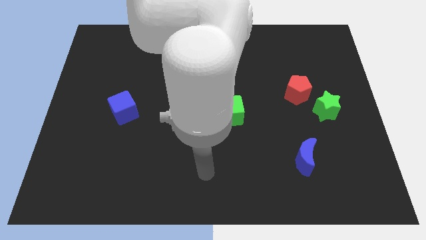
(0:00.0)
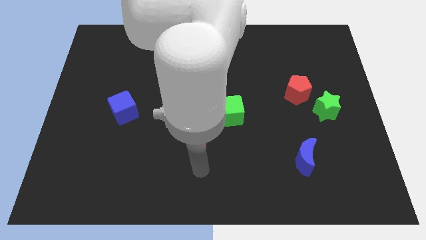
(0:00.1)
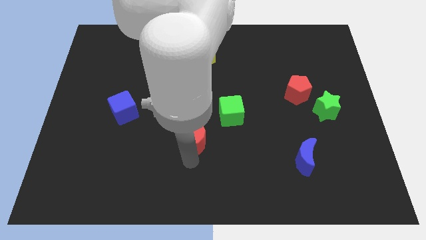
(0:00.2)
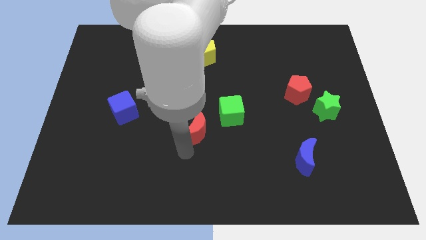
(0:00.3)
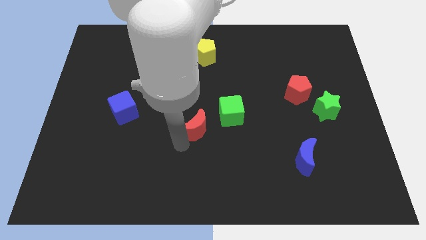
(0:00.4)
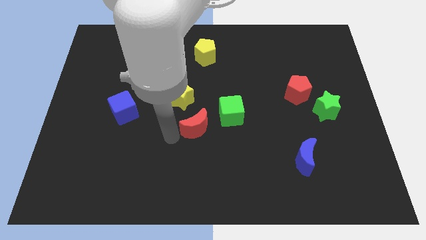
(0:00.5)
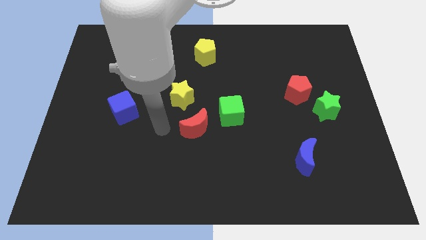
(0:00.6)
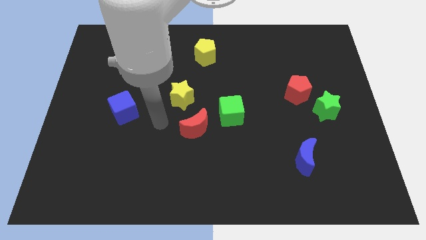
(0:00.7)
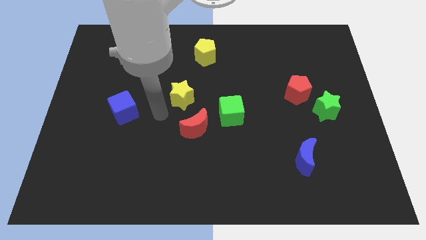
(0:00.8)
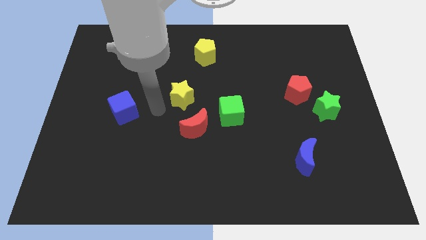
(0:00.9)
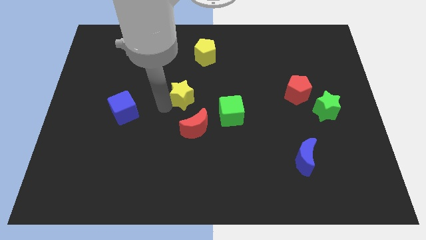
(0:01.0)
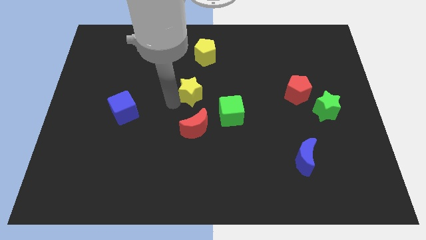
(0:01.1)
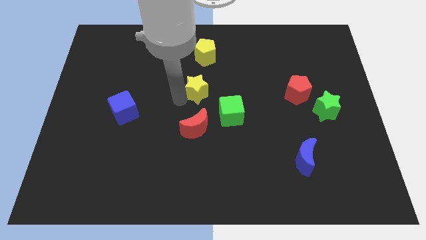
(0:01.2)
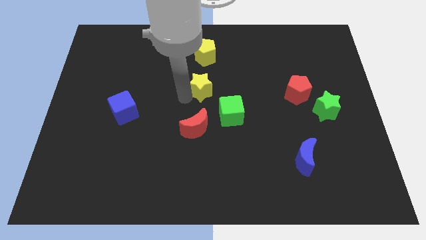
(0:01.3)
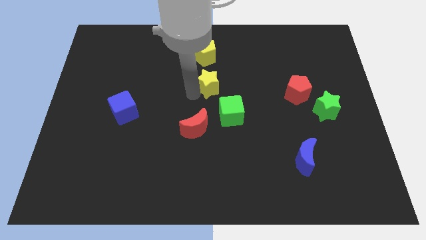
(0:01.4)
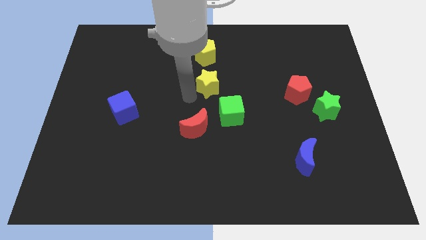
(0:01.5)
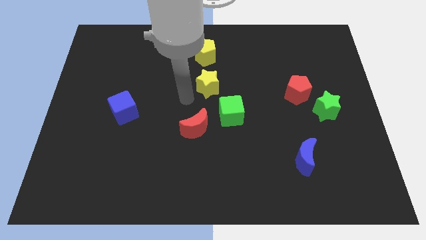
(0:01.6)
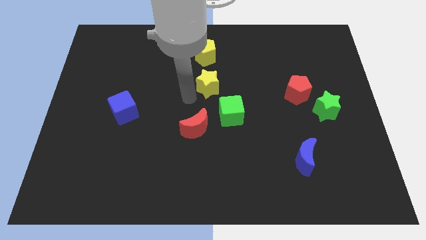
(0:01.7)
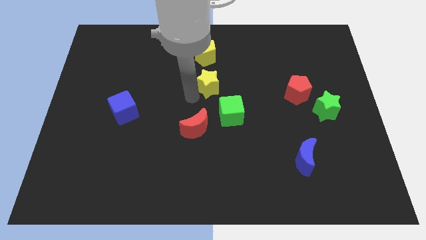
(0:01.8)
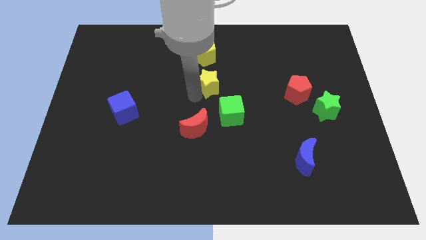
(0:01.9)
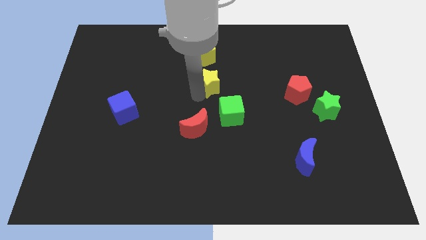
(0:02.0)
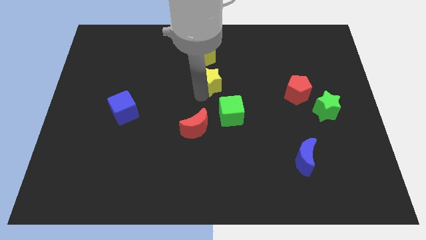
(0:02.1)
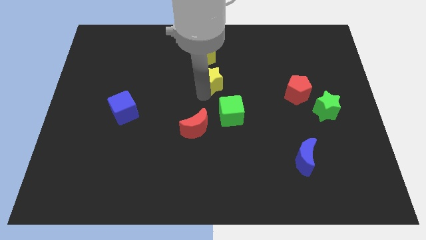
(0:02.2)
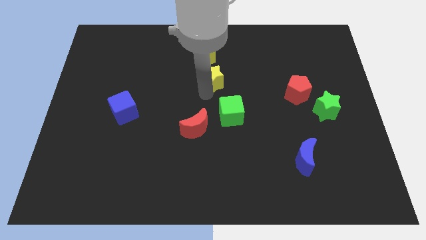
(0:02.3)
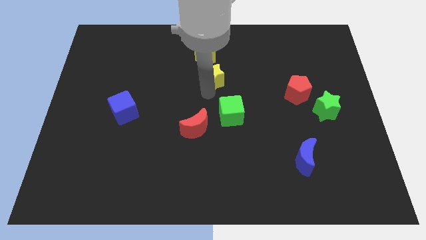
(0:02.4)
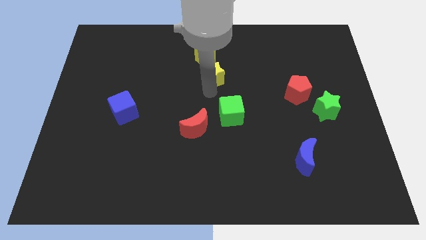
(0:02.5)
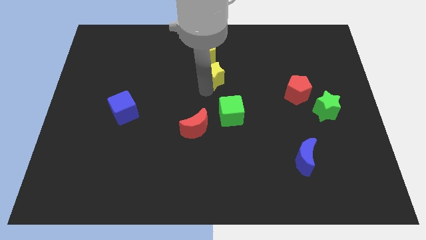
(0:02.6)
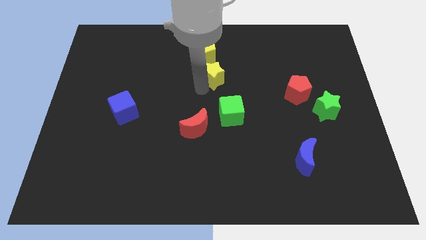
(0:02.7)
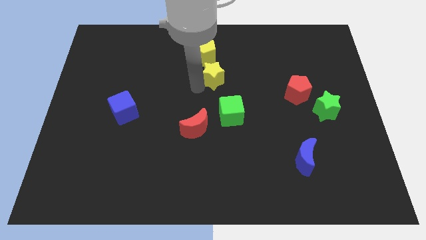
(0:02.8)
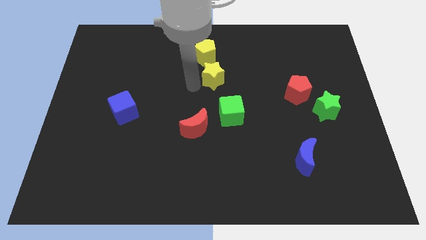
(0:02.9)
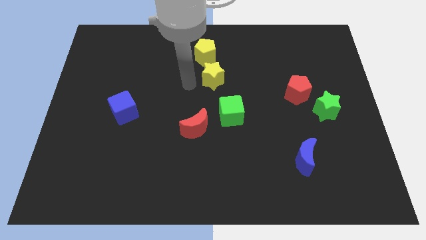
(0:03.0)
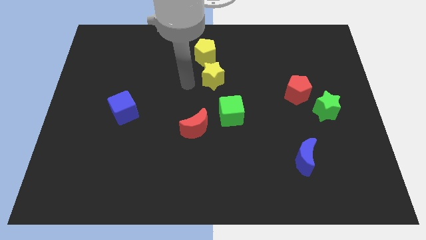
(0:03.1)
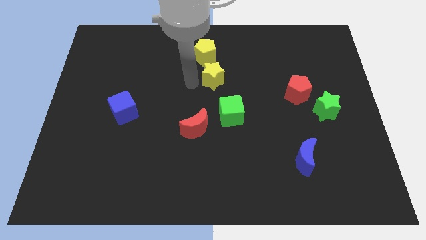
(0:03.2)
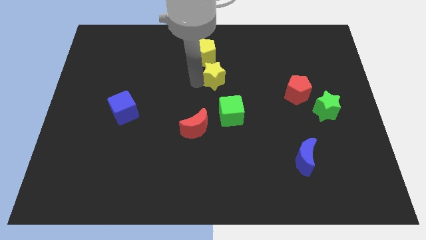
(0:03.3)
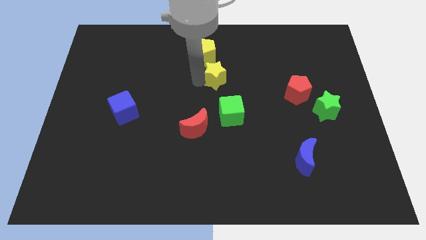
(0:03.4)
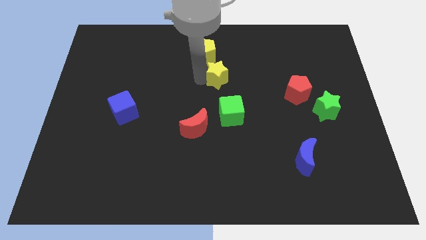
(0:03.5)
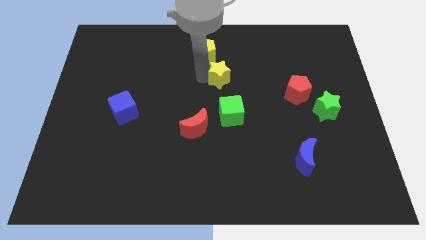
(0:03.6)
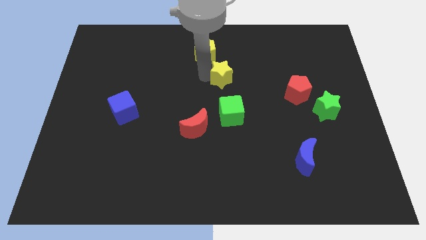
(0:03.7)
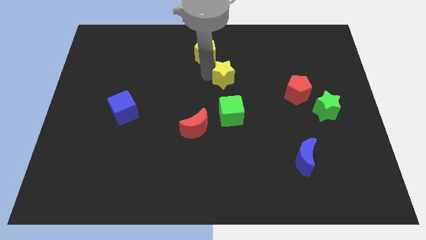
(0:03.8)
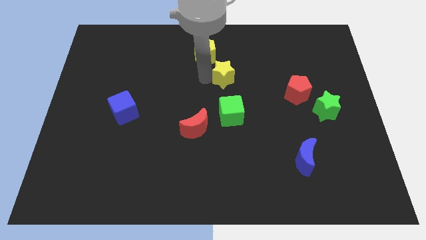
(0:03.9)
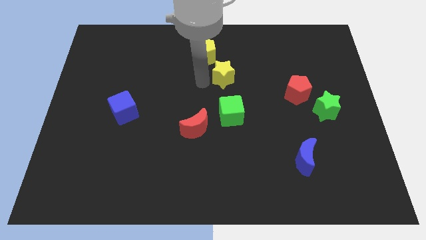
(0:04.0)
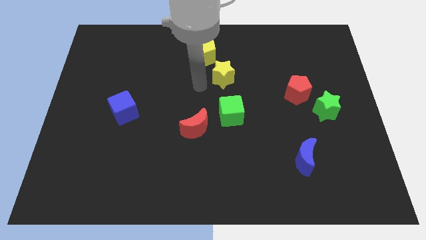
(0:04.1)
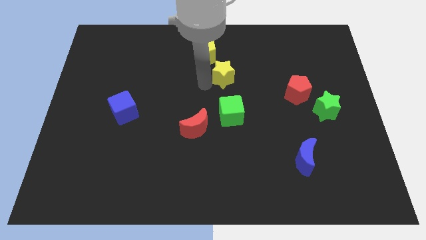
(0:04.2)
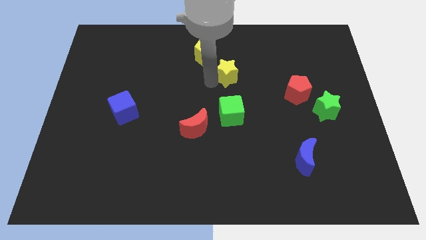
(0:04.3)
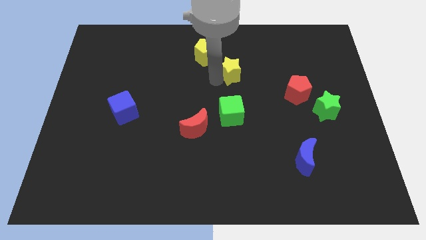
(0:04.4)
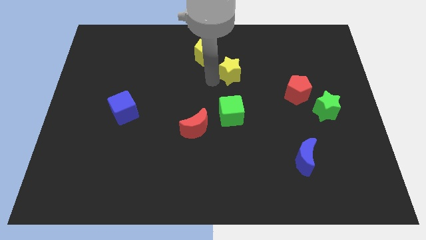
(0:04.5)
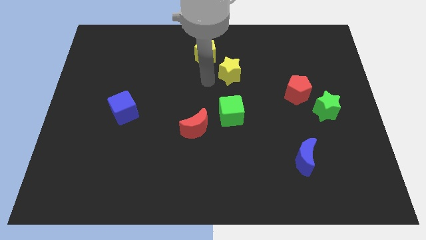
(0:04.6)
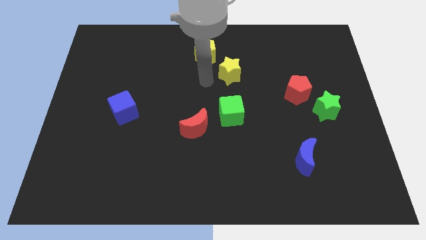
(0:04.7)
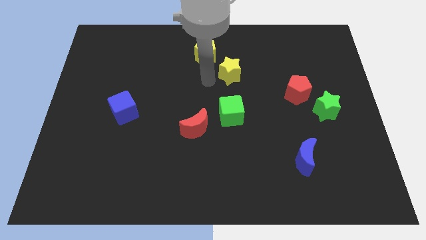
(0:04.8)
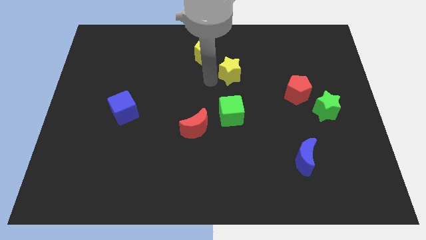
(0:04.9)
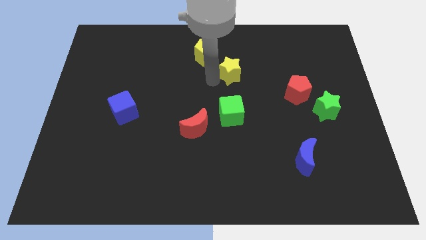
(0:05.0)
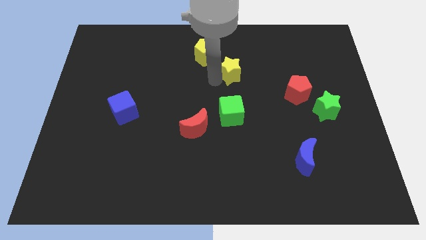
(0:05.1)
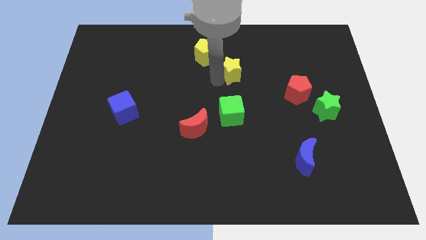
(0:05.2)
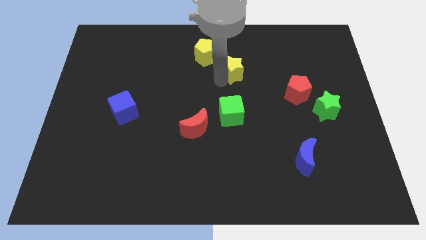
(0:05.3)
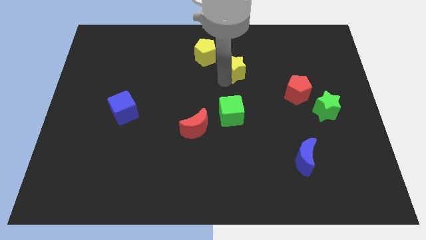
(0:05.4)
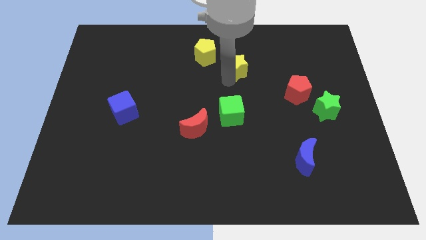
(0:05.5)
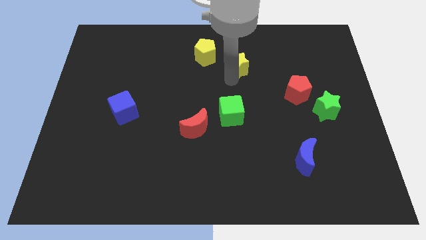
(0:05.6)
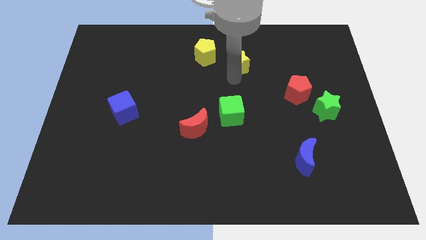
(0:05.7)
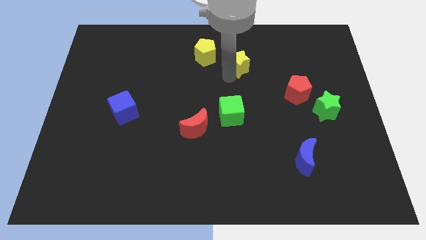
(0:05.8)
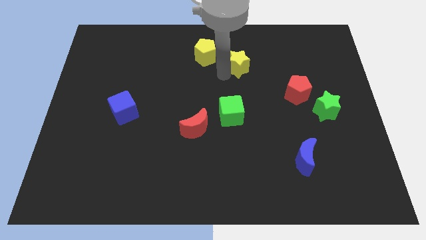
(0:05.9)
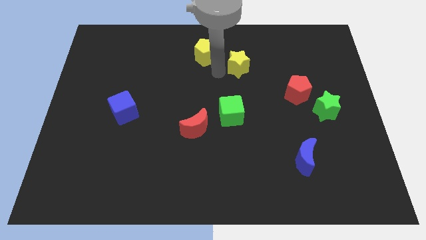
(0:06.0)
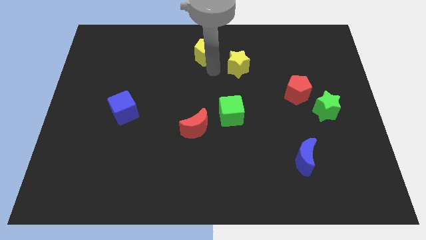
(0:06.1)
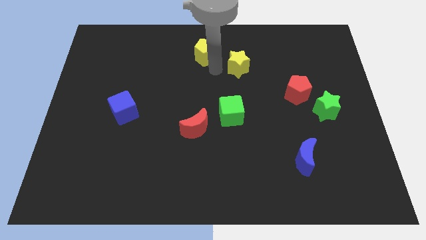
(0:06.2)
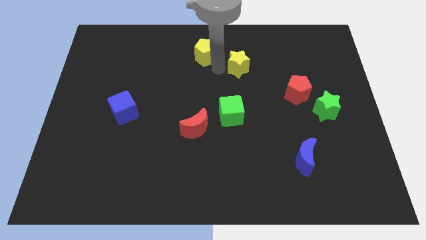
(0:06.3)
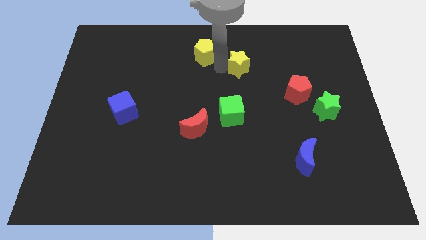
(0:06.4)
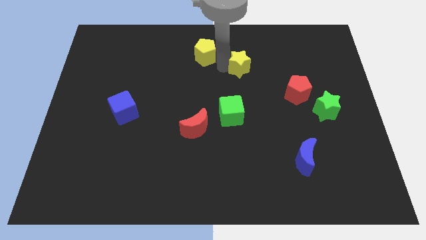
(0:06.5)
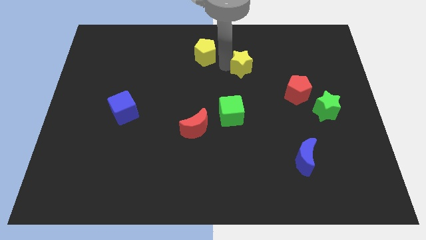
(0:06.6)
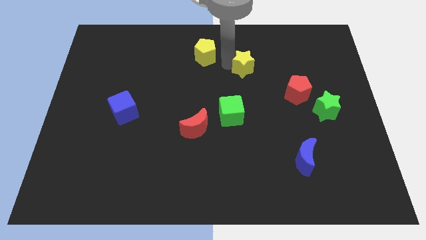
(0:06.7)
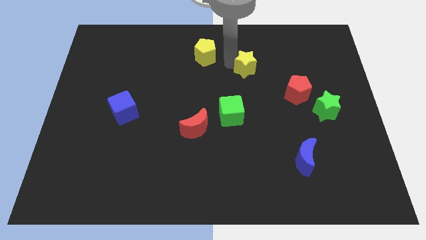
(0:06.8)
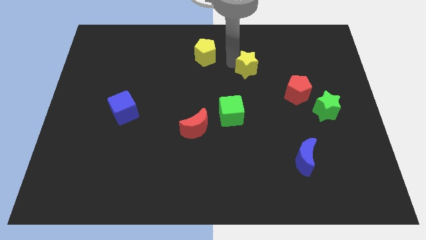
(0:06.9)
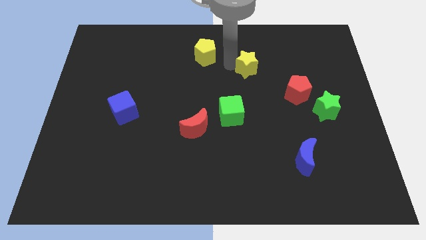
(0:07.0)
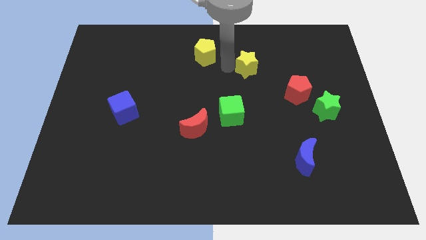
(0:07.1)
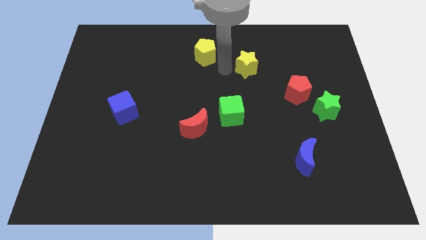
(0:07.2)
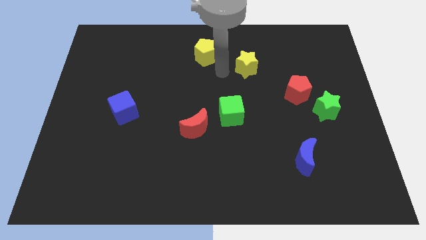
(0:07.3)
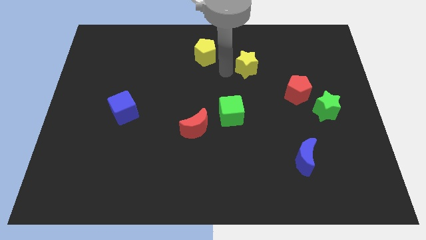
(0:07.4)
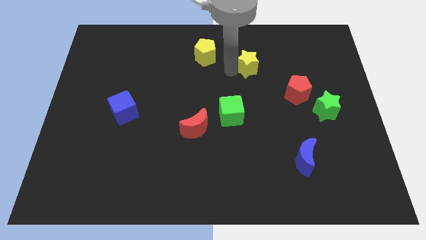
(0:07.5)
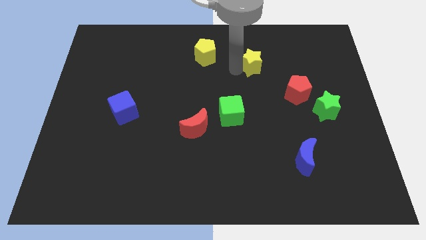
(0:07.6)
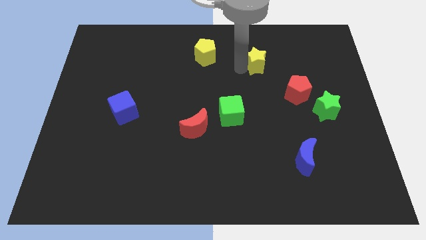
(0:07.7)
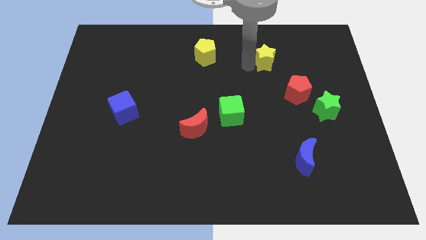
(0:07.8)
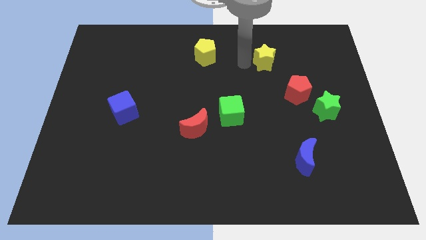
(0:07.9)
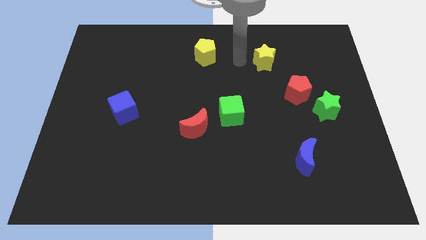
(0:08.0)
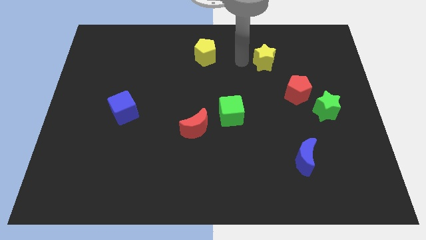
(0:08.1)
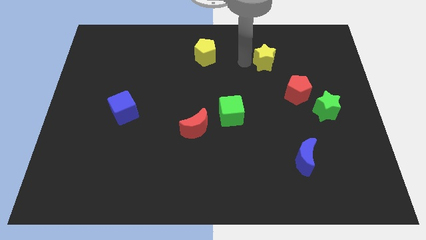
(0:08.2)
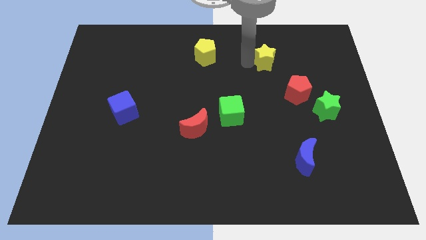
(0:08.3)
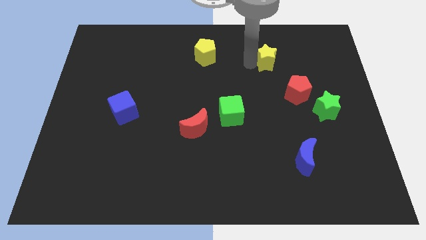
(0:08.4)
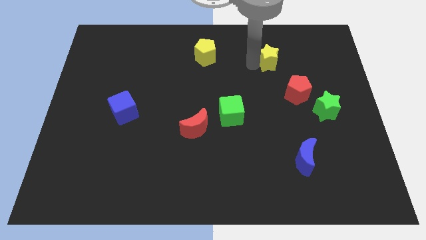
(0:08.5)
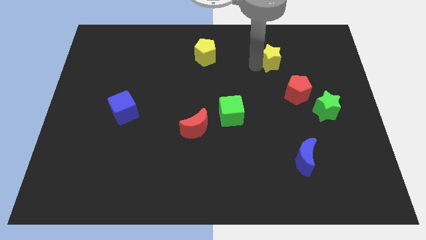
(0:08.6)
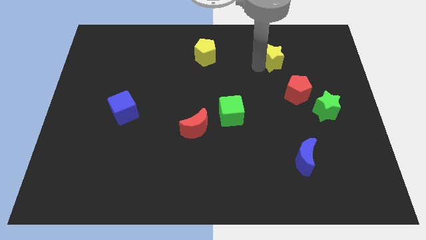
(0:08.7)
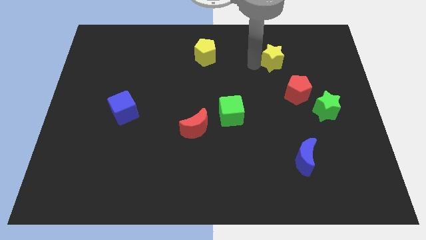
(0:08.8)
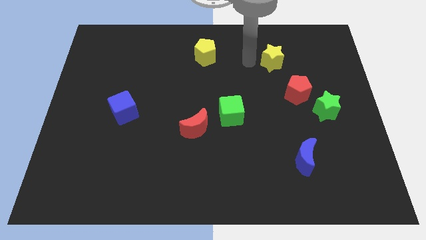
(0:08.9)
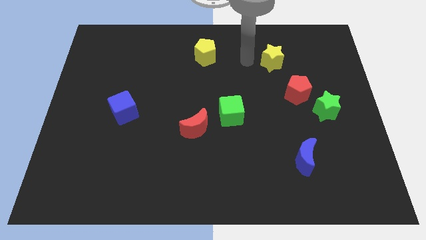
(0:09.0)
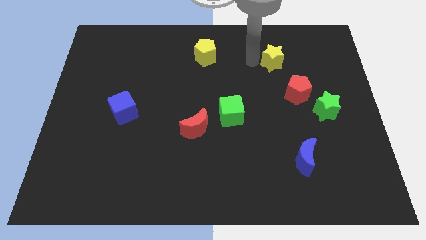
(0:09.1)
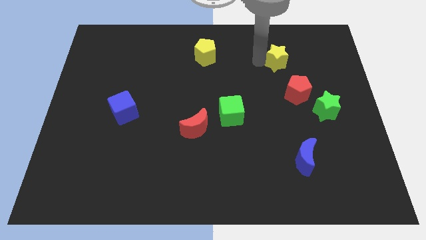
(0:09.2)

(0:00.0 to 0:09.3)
push the yellow star to the top of the red pentagon
